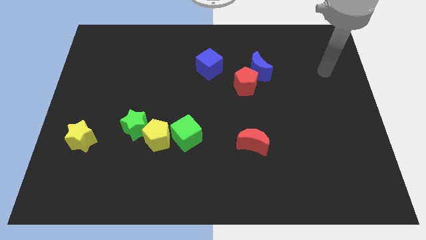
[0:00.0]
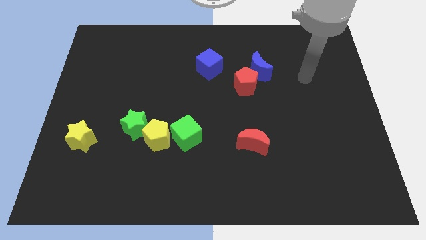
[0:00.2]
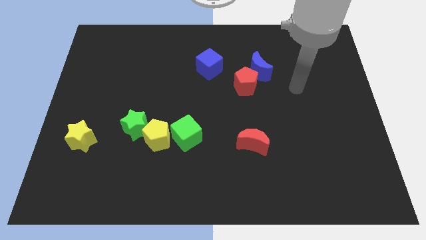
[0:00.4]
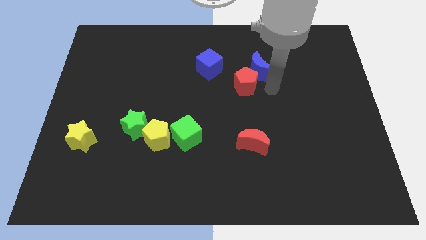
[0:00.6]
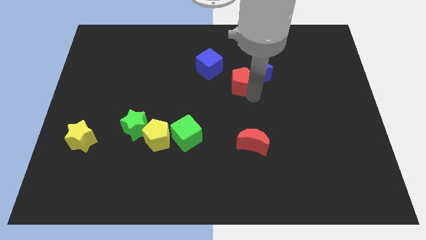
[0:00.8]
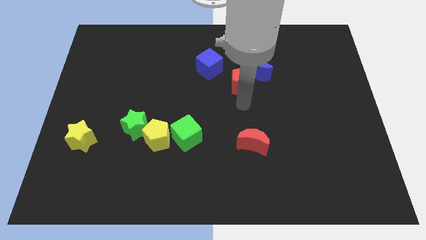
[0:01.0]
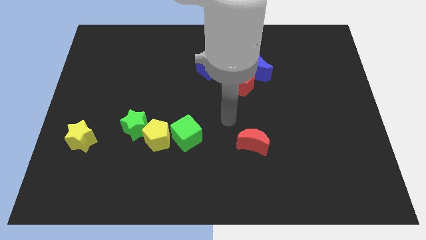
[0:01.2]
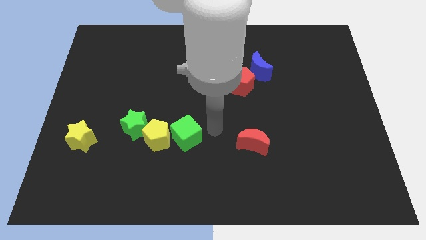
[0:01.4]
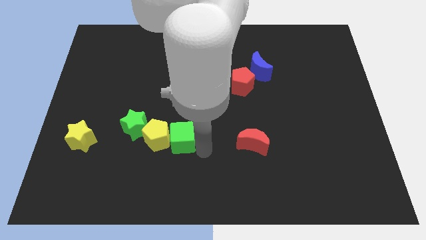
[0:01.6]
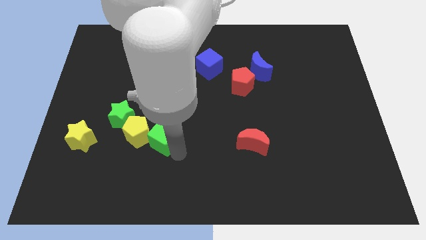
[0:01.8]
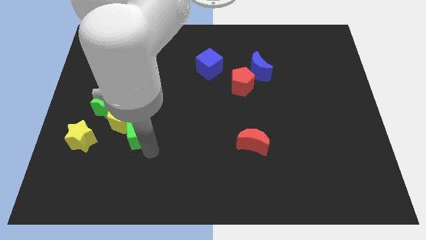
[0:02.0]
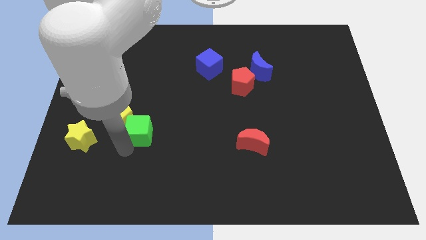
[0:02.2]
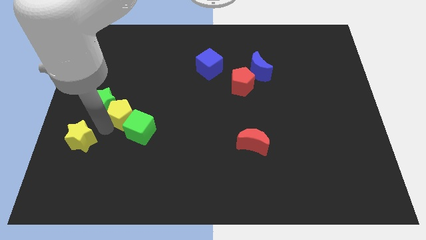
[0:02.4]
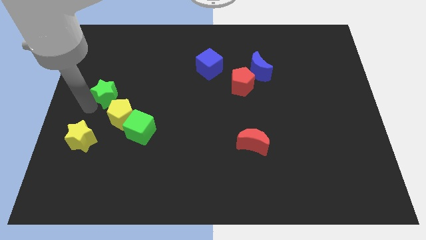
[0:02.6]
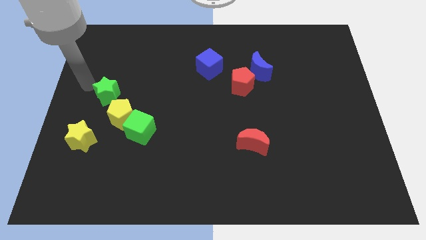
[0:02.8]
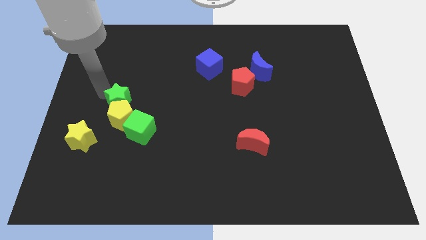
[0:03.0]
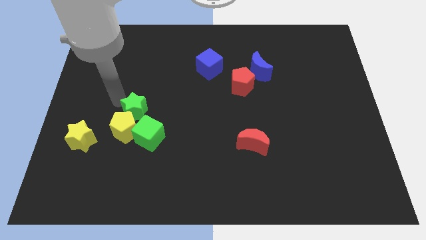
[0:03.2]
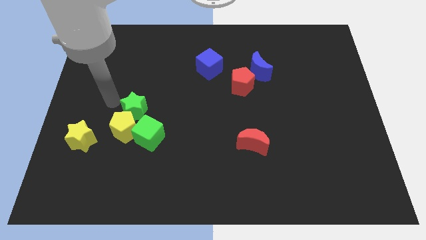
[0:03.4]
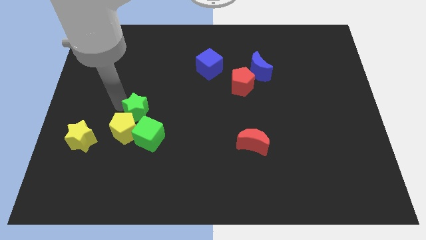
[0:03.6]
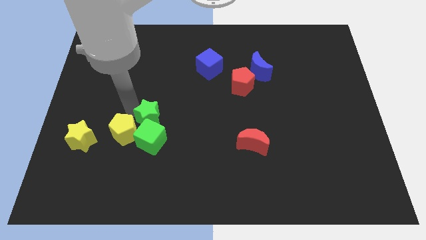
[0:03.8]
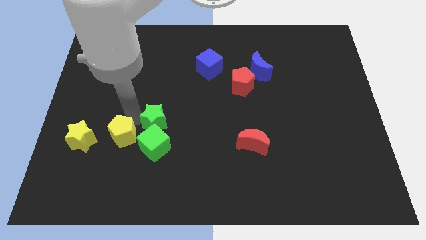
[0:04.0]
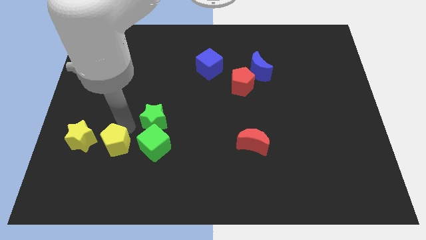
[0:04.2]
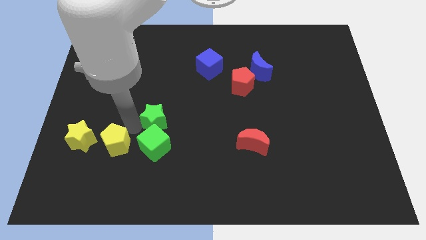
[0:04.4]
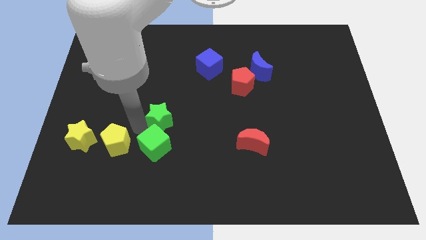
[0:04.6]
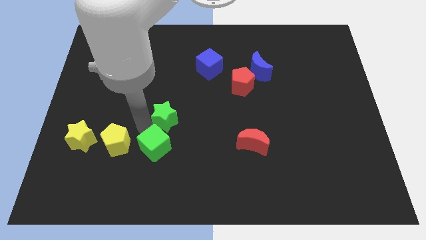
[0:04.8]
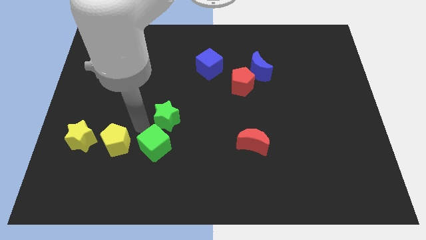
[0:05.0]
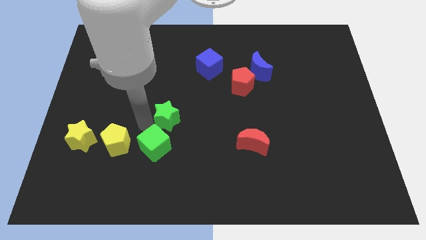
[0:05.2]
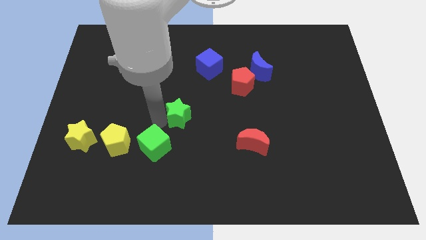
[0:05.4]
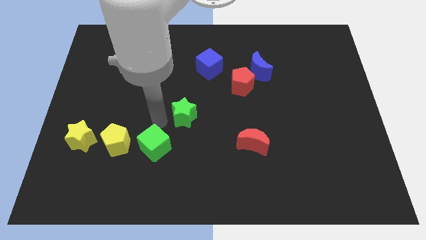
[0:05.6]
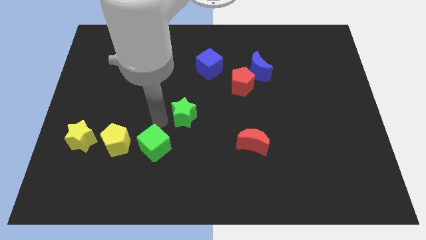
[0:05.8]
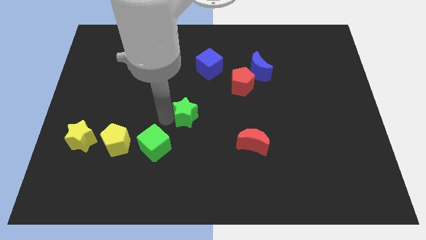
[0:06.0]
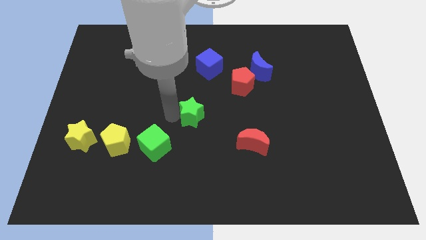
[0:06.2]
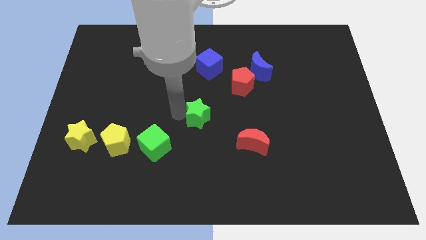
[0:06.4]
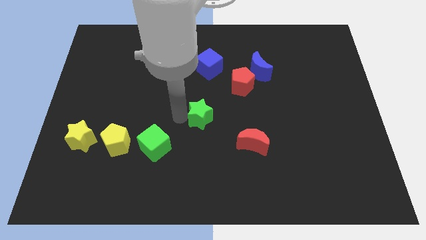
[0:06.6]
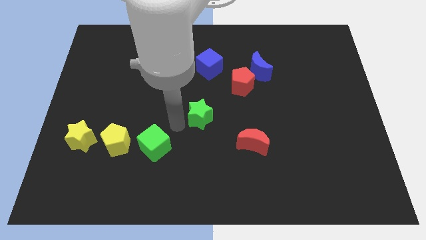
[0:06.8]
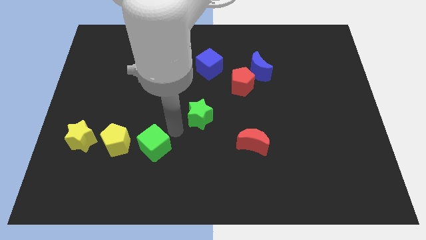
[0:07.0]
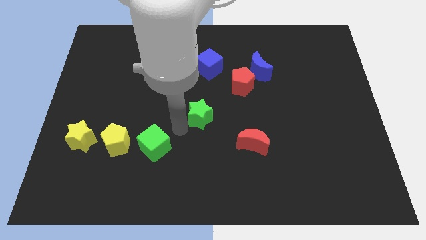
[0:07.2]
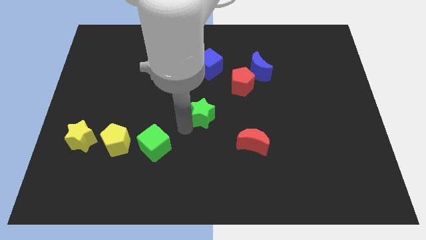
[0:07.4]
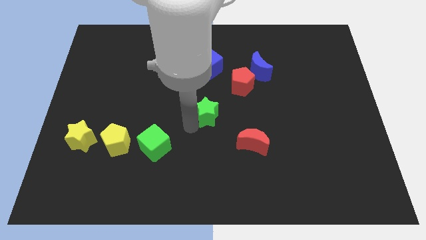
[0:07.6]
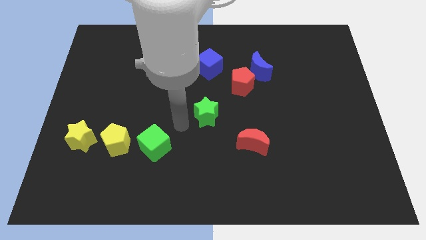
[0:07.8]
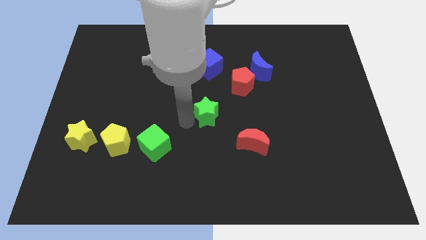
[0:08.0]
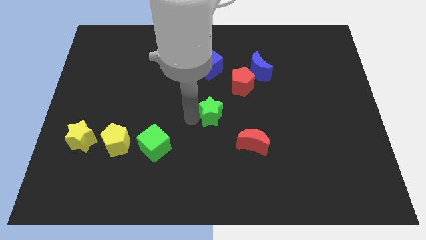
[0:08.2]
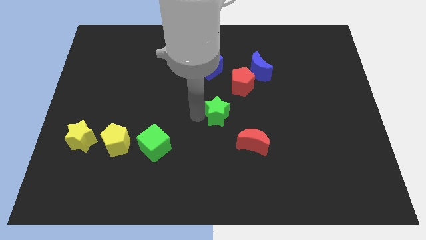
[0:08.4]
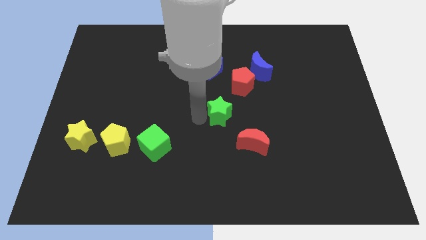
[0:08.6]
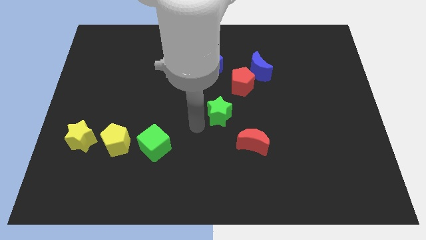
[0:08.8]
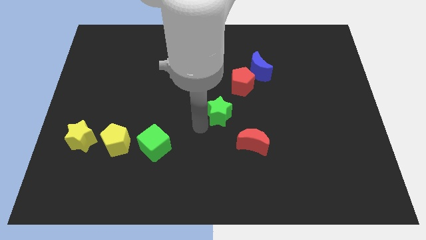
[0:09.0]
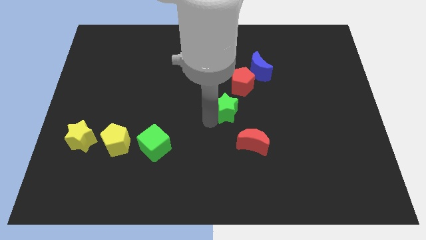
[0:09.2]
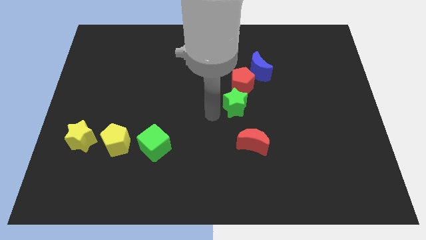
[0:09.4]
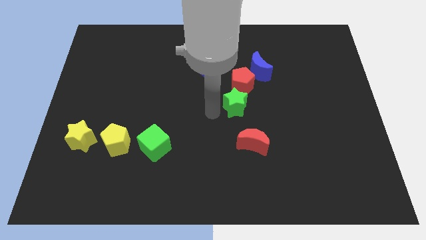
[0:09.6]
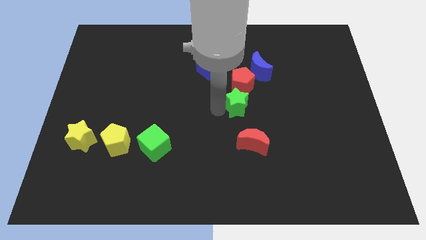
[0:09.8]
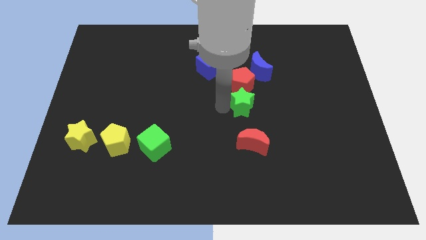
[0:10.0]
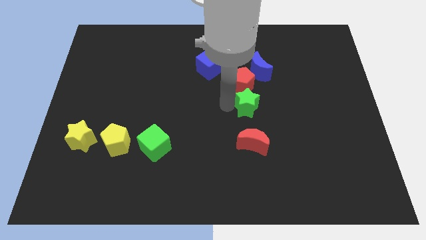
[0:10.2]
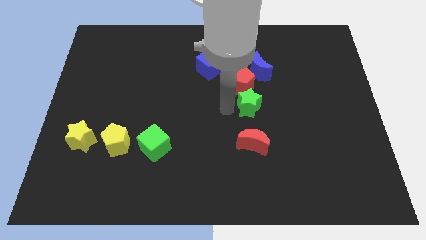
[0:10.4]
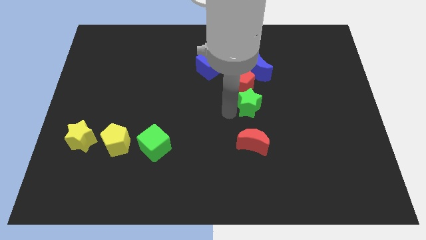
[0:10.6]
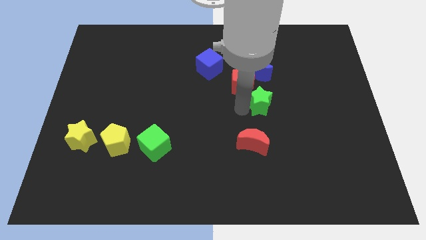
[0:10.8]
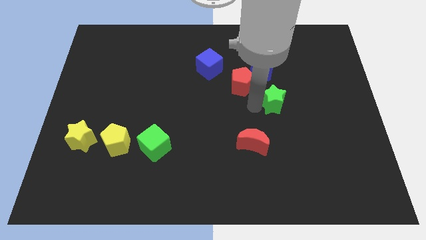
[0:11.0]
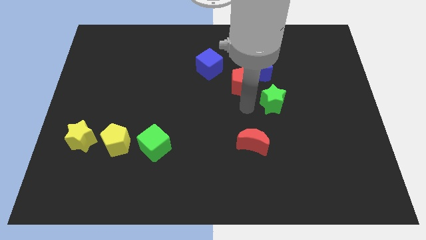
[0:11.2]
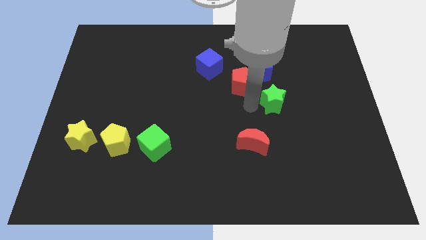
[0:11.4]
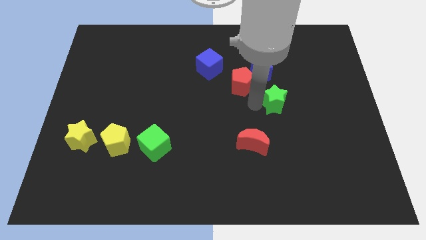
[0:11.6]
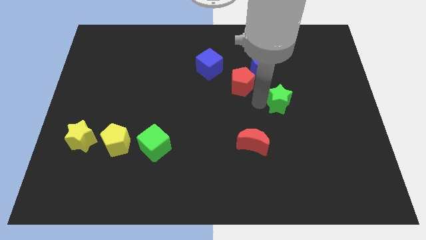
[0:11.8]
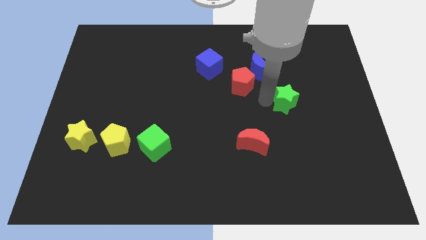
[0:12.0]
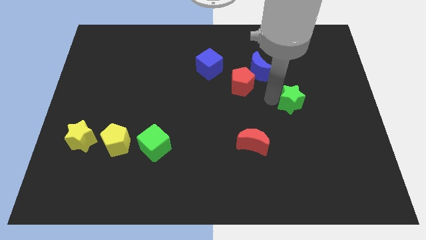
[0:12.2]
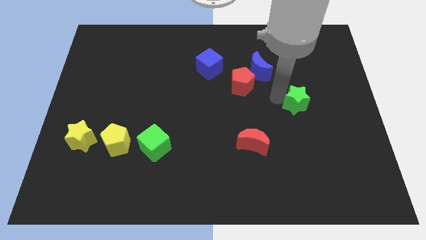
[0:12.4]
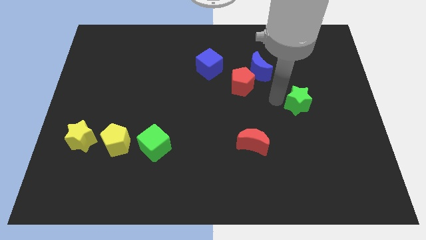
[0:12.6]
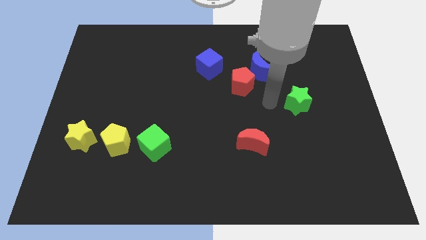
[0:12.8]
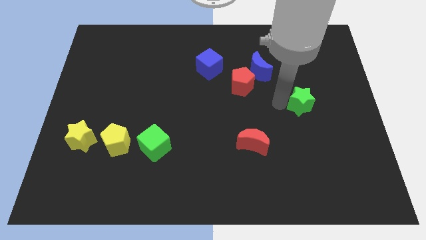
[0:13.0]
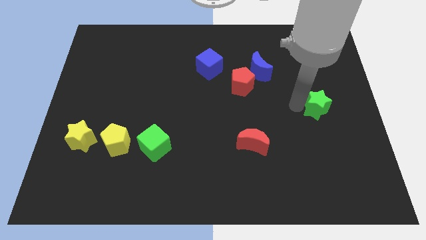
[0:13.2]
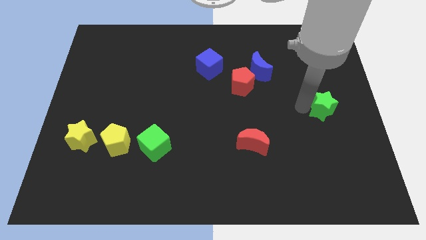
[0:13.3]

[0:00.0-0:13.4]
push the green star to the right side of the board
